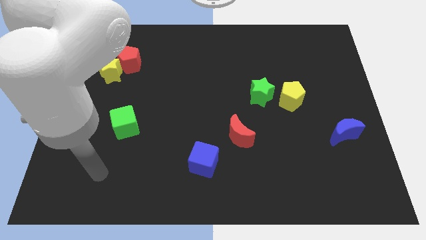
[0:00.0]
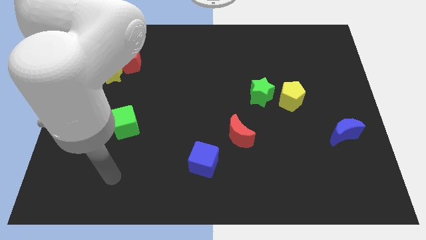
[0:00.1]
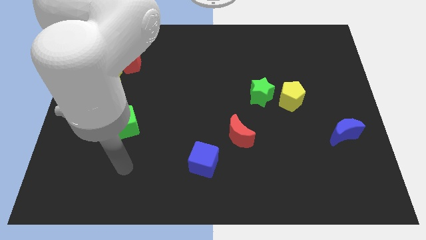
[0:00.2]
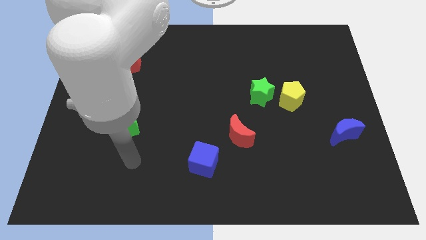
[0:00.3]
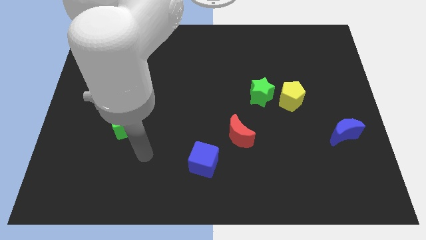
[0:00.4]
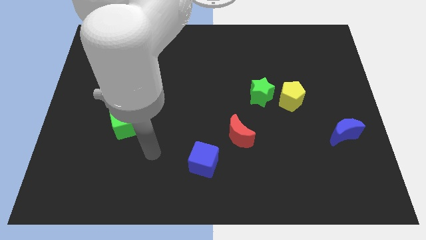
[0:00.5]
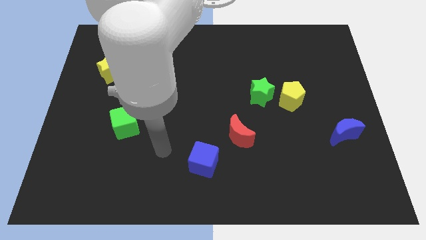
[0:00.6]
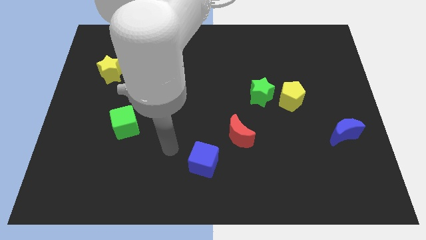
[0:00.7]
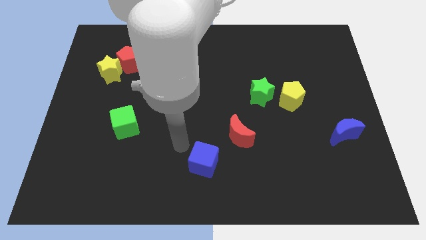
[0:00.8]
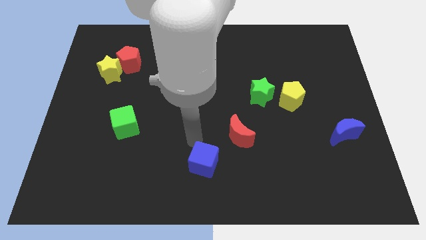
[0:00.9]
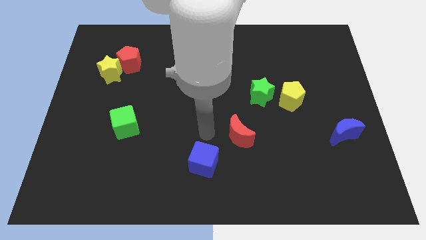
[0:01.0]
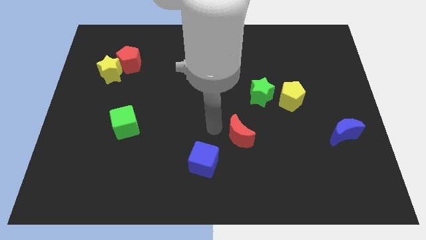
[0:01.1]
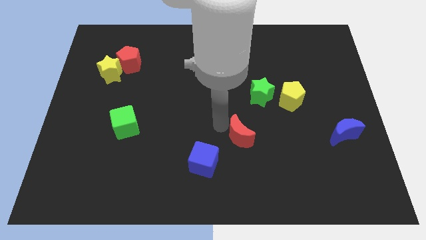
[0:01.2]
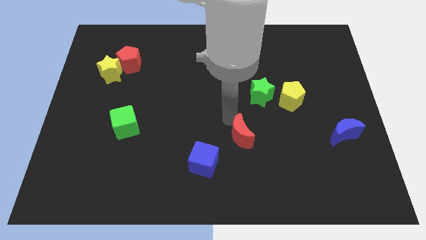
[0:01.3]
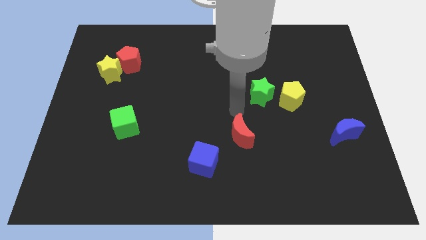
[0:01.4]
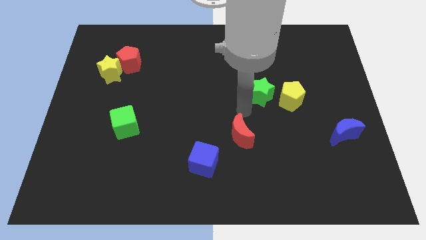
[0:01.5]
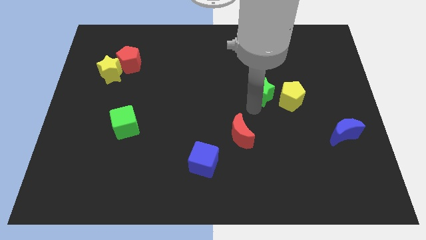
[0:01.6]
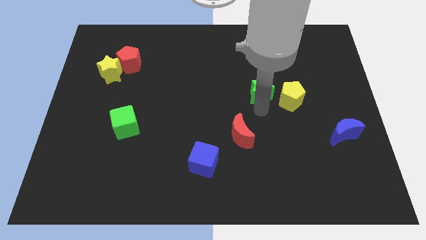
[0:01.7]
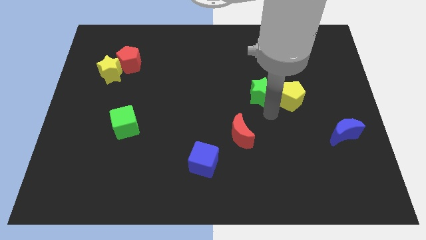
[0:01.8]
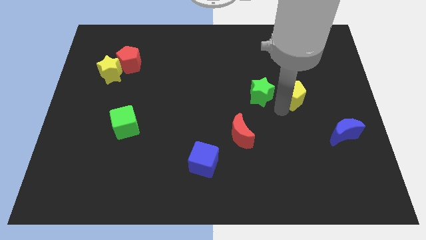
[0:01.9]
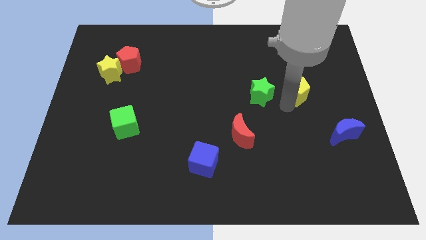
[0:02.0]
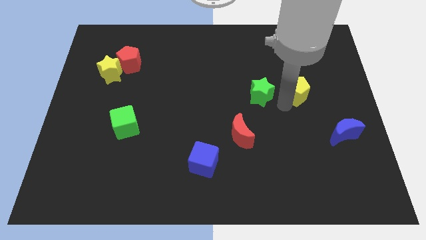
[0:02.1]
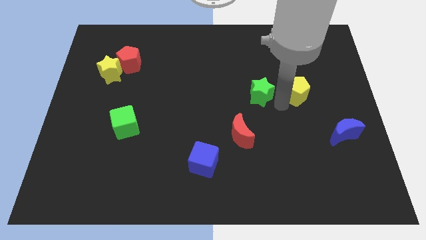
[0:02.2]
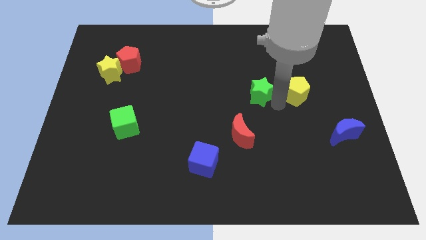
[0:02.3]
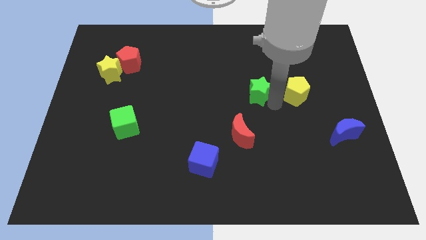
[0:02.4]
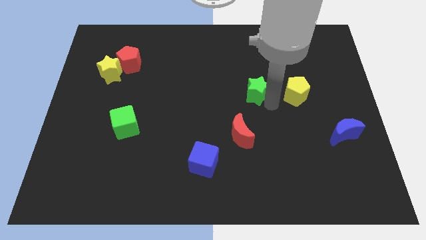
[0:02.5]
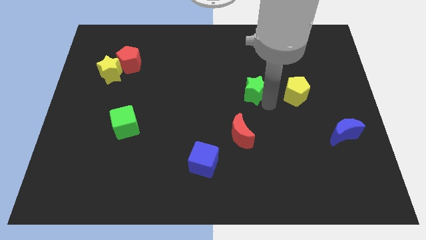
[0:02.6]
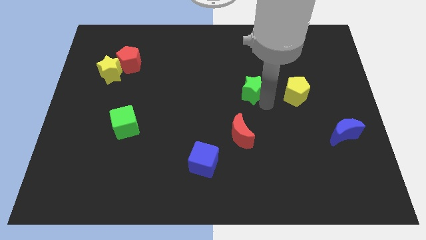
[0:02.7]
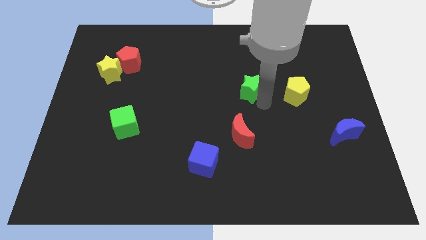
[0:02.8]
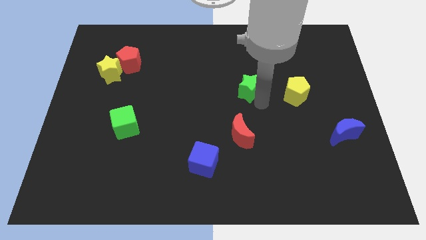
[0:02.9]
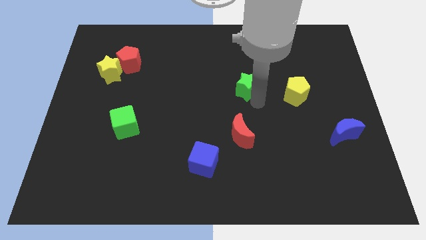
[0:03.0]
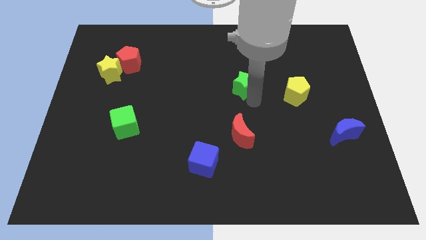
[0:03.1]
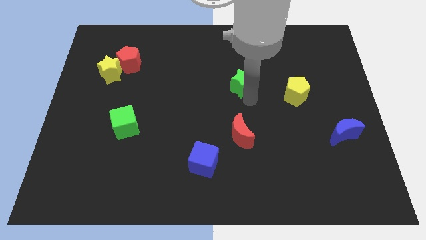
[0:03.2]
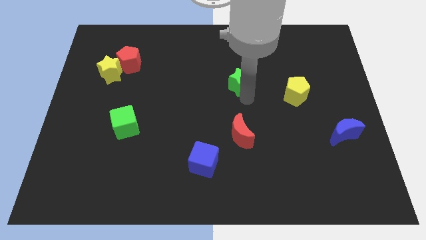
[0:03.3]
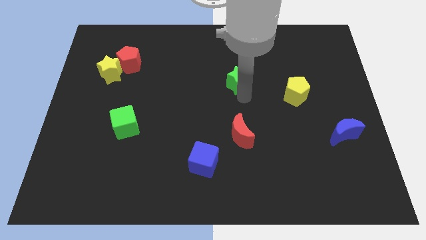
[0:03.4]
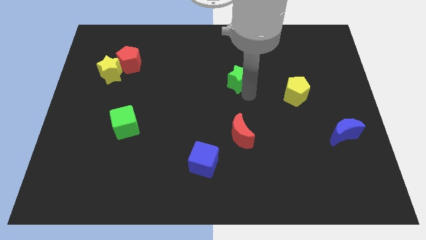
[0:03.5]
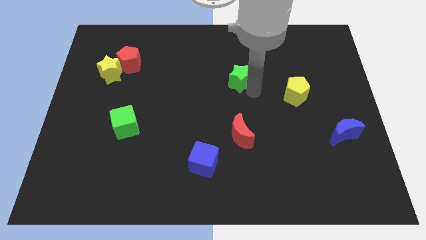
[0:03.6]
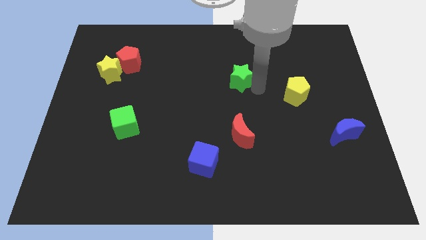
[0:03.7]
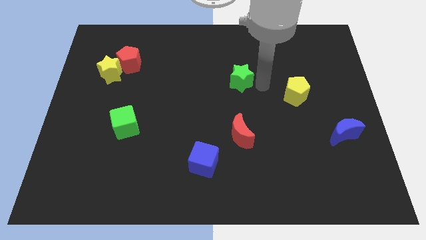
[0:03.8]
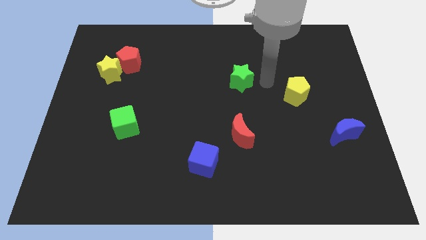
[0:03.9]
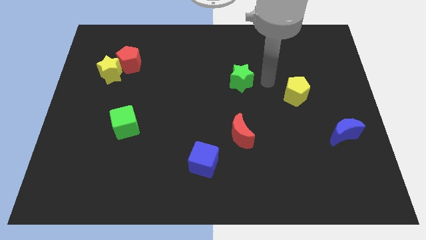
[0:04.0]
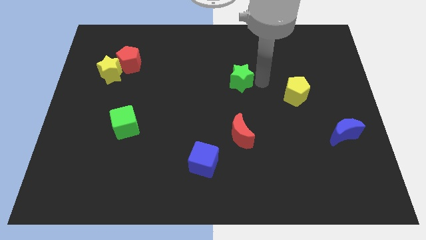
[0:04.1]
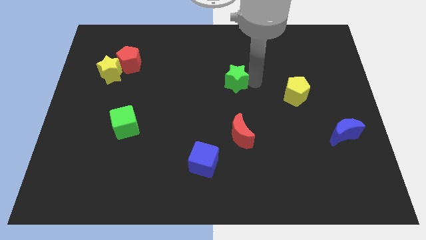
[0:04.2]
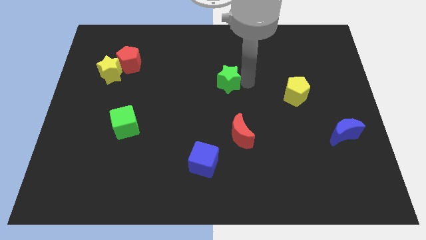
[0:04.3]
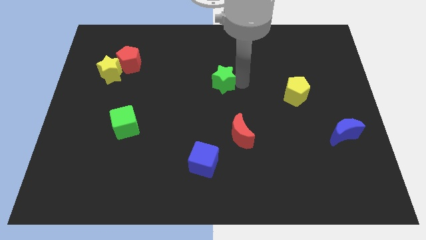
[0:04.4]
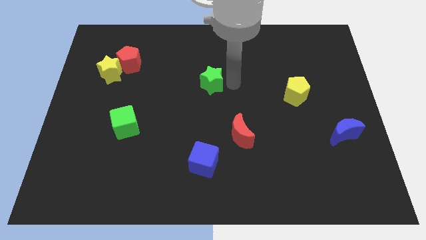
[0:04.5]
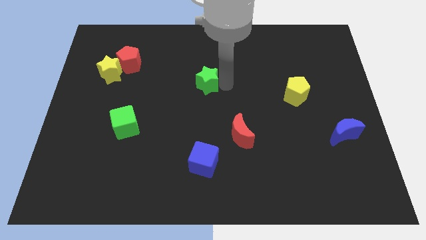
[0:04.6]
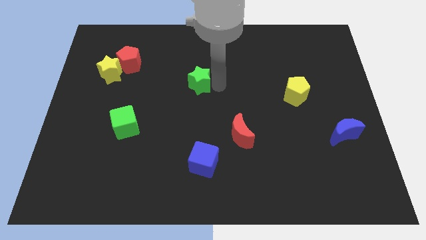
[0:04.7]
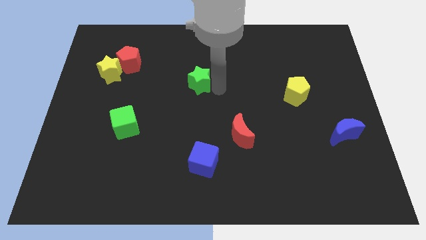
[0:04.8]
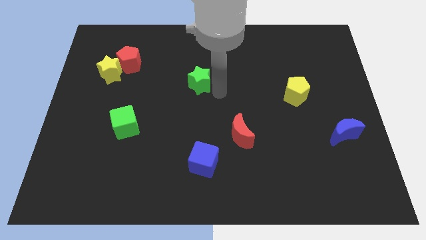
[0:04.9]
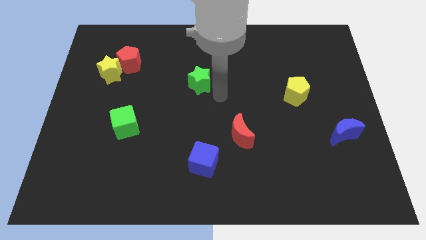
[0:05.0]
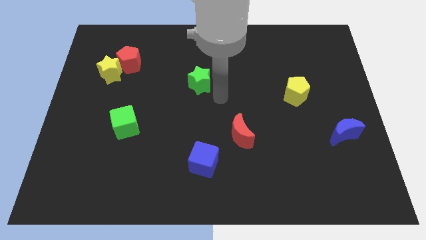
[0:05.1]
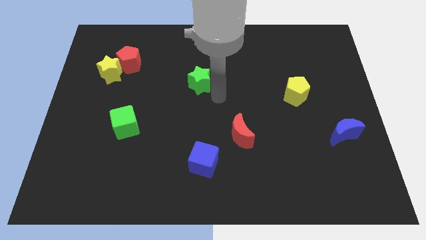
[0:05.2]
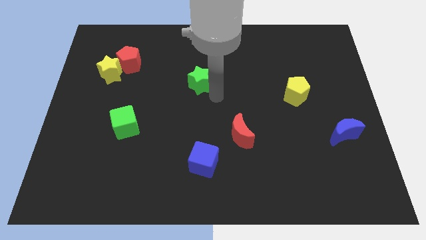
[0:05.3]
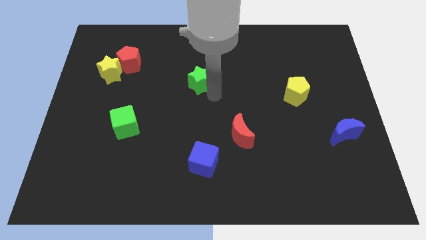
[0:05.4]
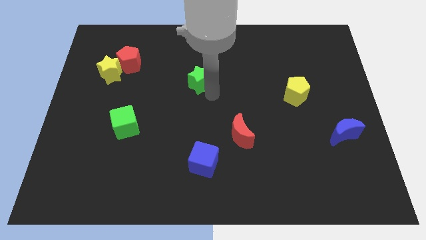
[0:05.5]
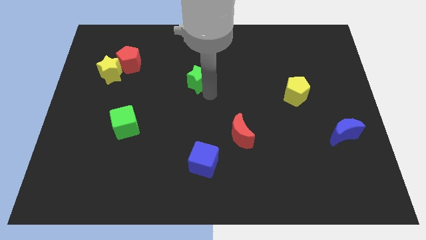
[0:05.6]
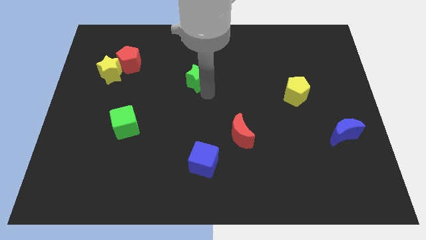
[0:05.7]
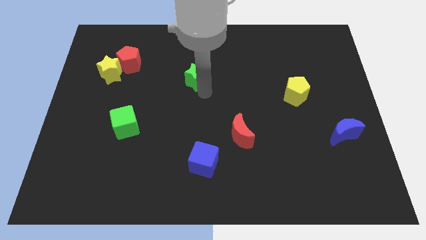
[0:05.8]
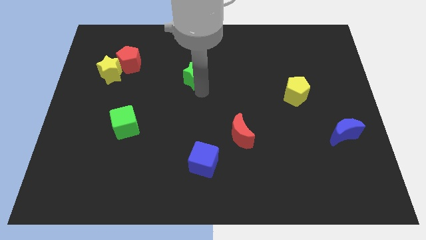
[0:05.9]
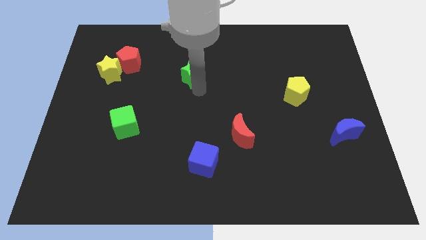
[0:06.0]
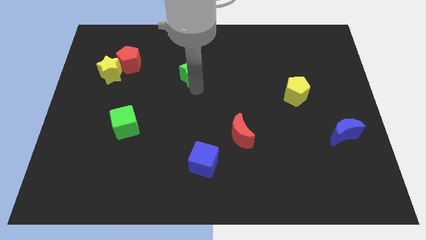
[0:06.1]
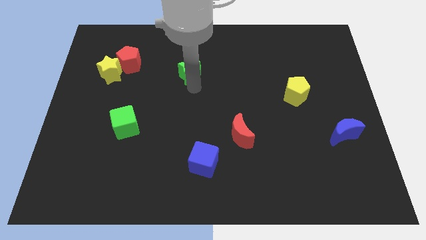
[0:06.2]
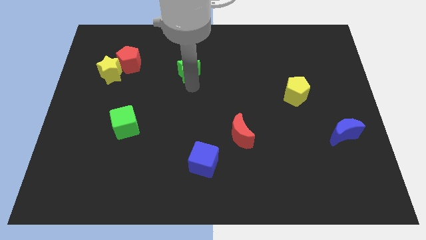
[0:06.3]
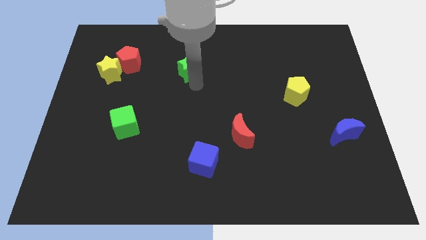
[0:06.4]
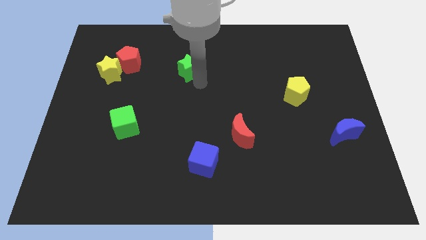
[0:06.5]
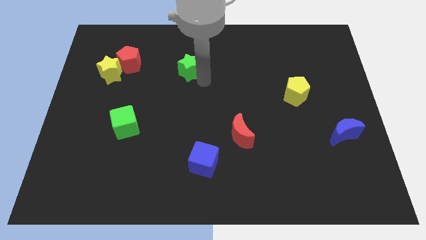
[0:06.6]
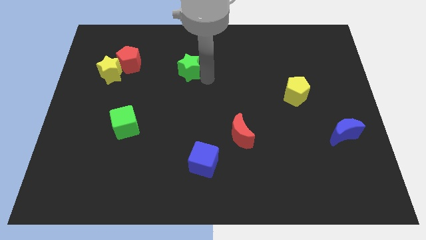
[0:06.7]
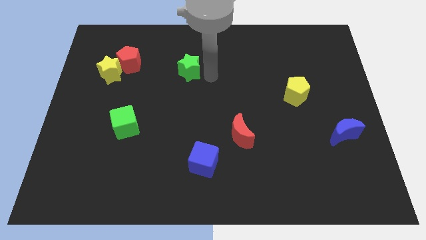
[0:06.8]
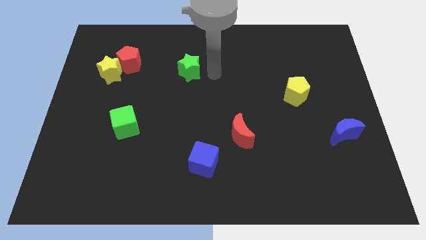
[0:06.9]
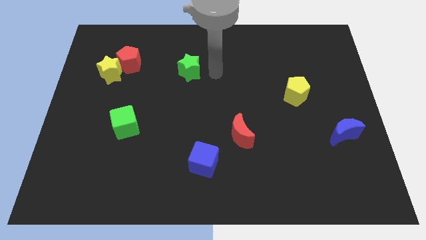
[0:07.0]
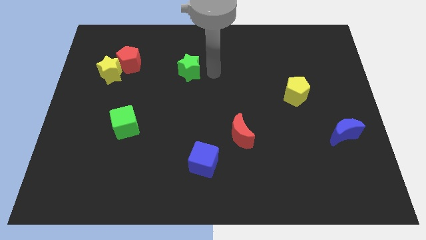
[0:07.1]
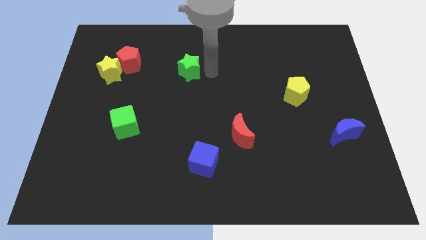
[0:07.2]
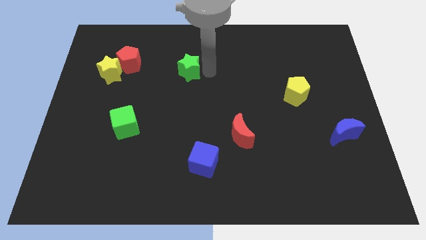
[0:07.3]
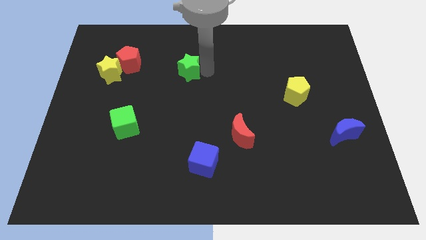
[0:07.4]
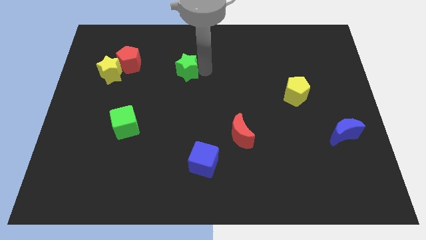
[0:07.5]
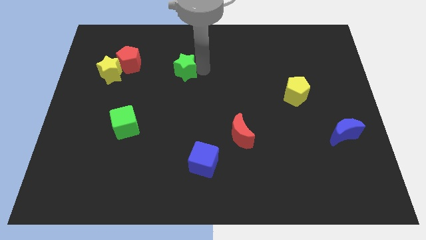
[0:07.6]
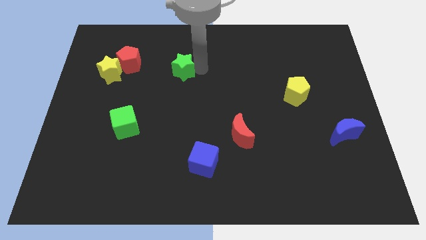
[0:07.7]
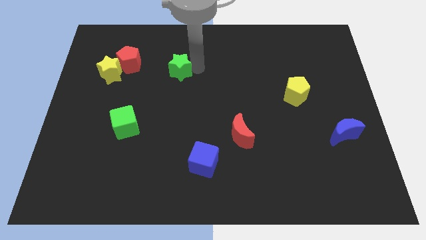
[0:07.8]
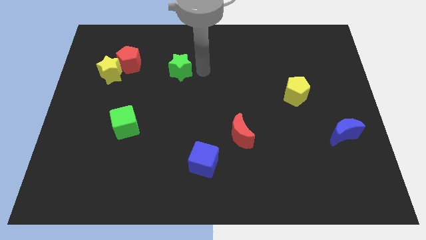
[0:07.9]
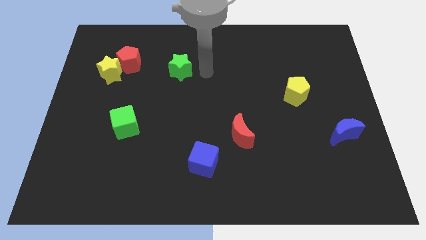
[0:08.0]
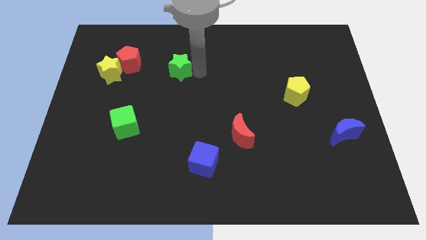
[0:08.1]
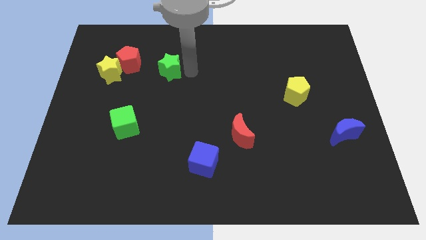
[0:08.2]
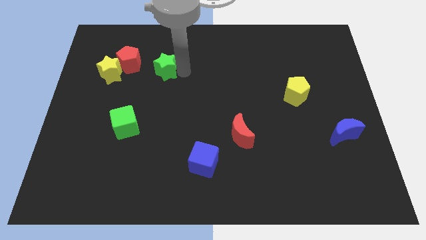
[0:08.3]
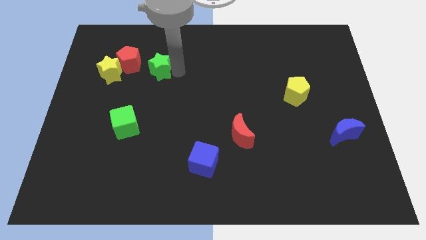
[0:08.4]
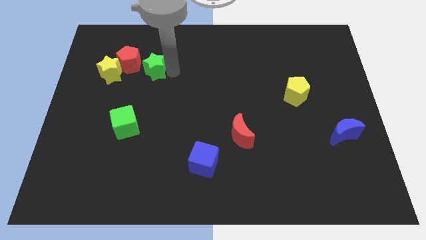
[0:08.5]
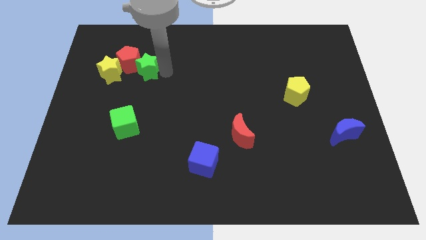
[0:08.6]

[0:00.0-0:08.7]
move the green star next to the red pentagon
